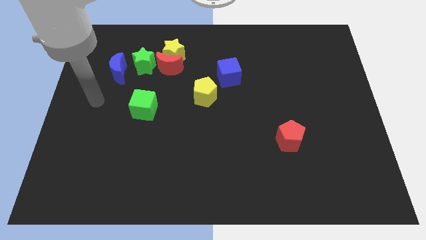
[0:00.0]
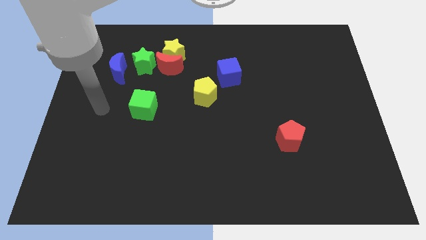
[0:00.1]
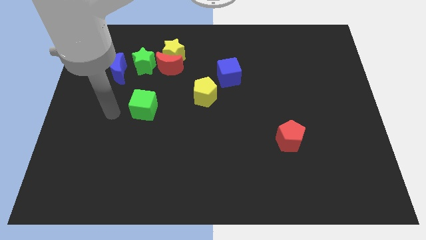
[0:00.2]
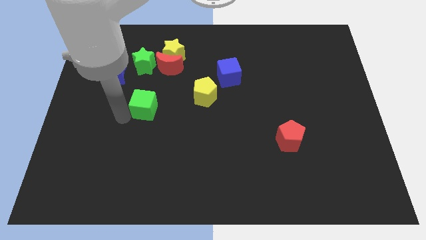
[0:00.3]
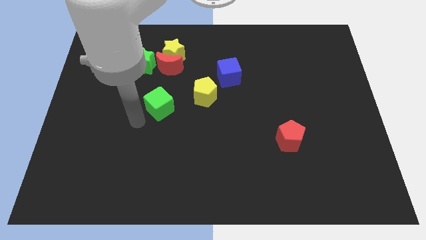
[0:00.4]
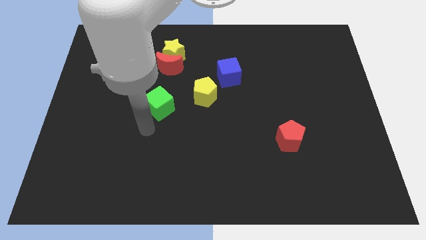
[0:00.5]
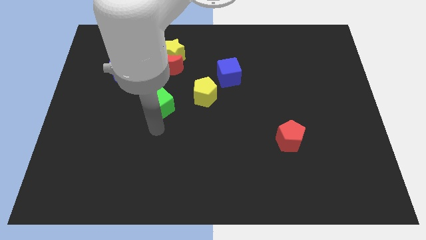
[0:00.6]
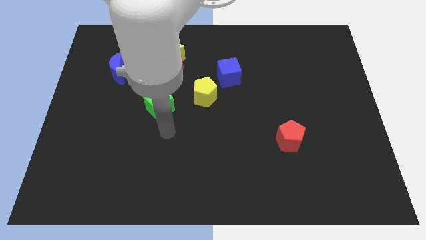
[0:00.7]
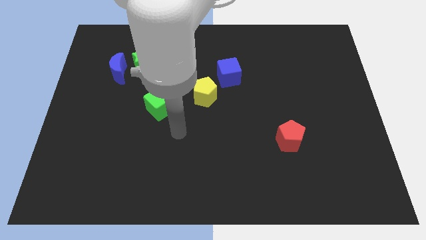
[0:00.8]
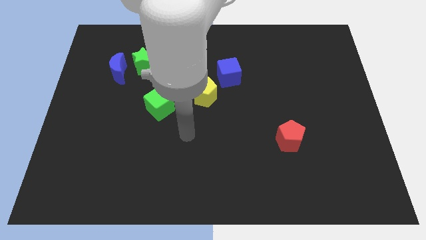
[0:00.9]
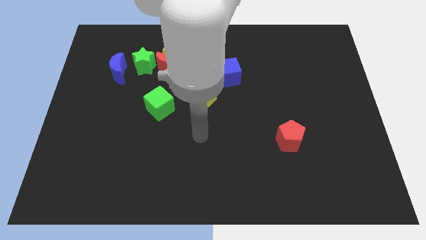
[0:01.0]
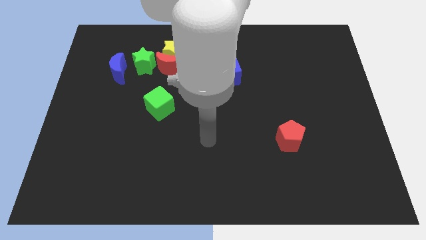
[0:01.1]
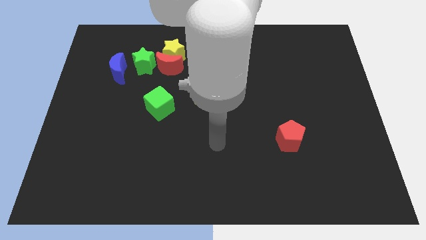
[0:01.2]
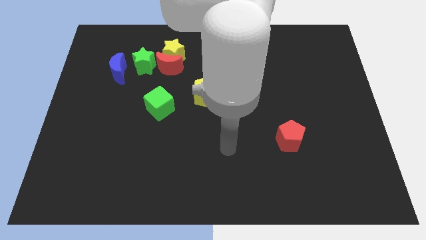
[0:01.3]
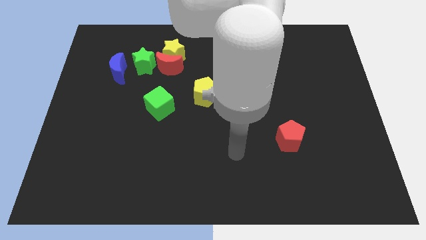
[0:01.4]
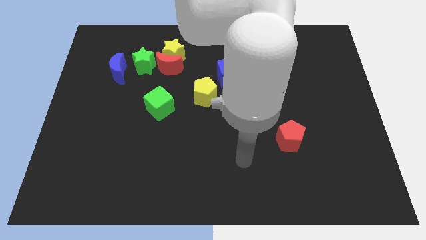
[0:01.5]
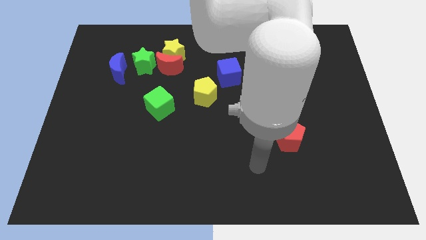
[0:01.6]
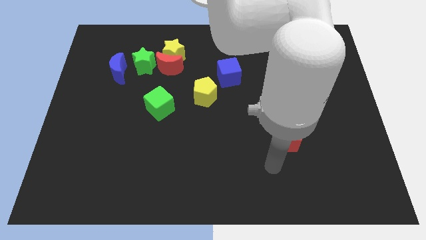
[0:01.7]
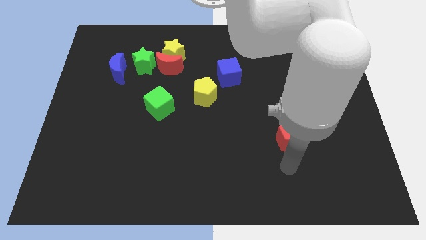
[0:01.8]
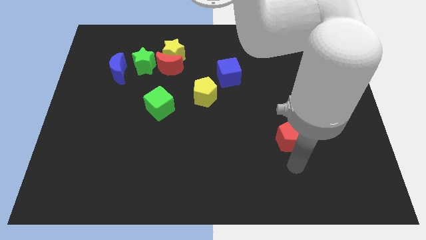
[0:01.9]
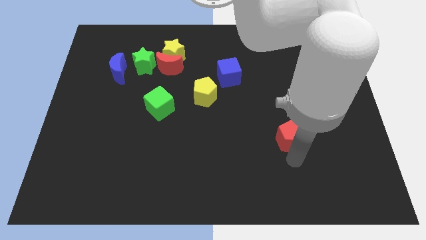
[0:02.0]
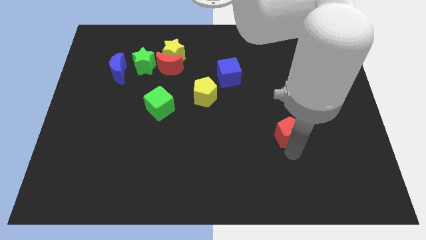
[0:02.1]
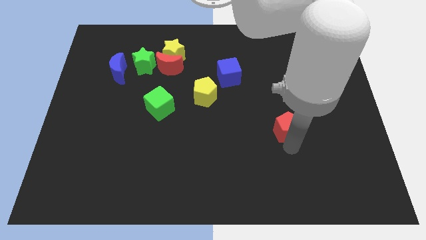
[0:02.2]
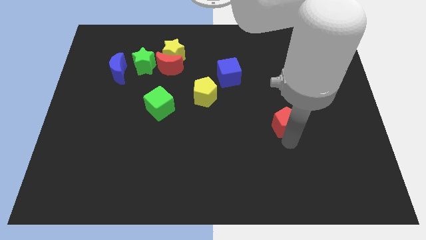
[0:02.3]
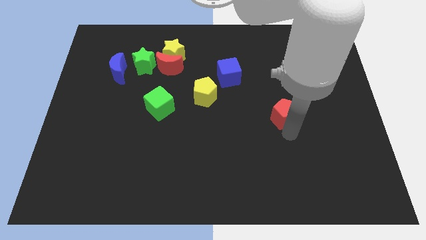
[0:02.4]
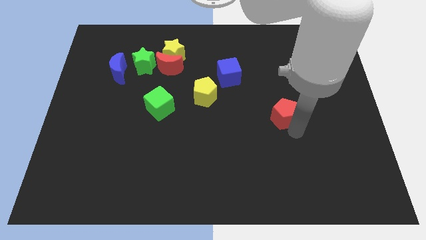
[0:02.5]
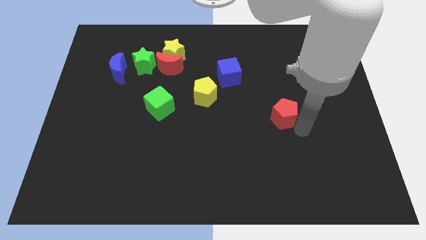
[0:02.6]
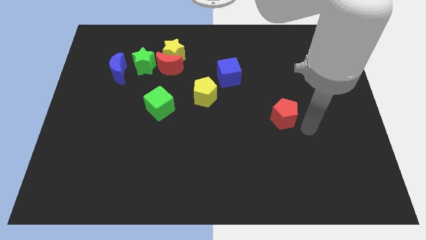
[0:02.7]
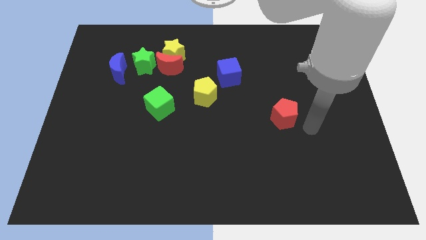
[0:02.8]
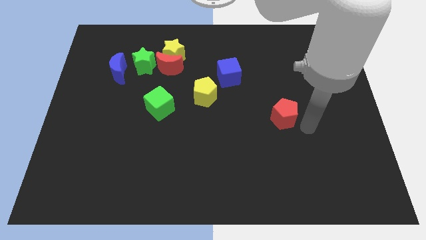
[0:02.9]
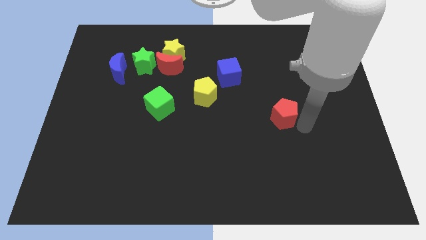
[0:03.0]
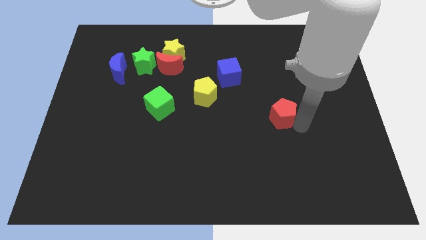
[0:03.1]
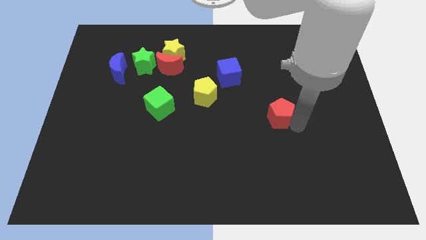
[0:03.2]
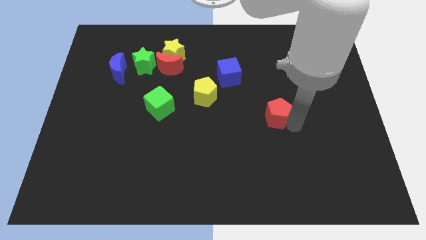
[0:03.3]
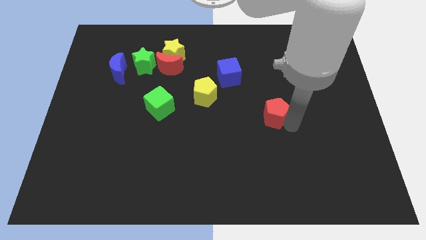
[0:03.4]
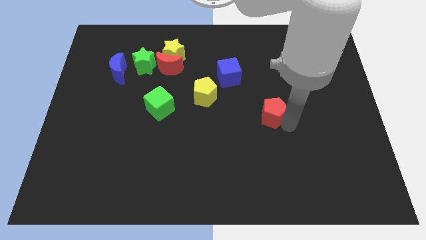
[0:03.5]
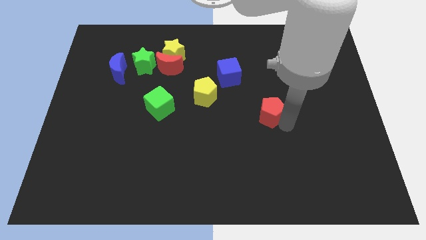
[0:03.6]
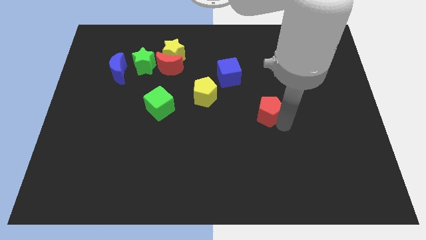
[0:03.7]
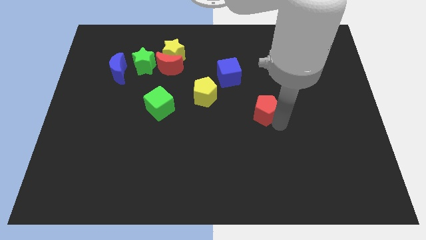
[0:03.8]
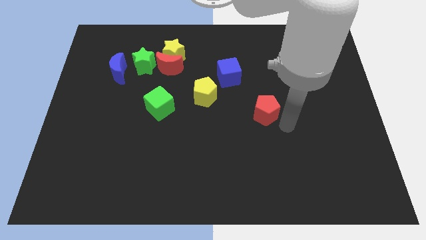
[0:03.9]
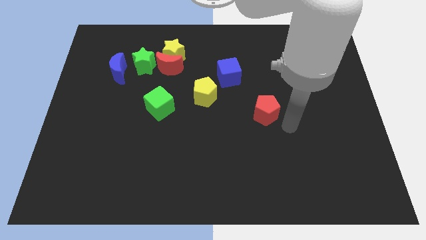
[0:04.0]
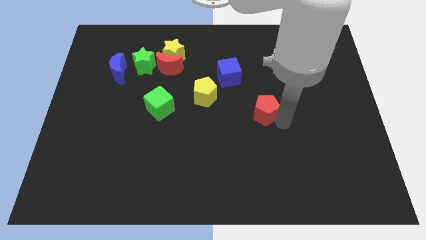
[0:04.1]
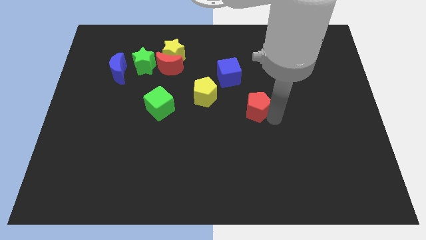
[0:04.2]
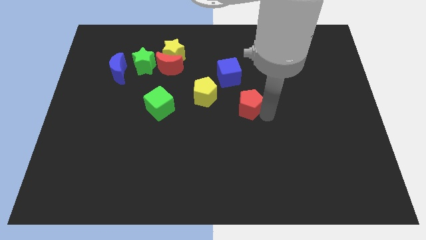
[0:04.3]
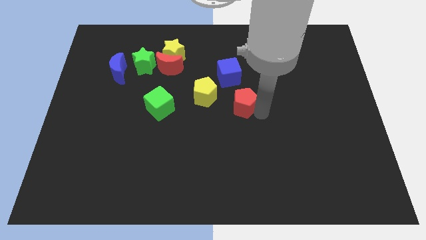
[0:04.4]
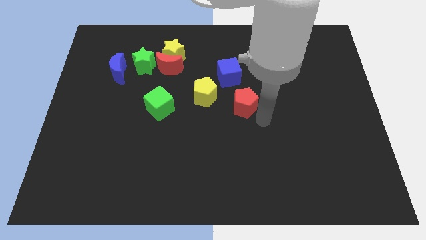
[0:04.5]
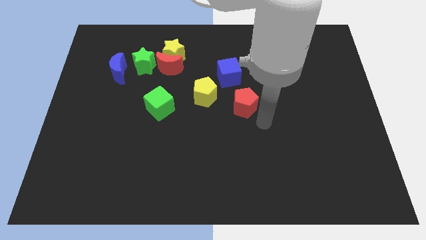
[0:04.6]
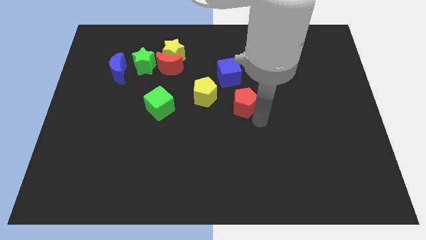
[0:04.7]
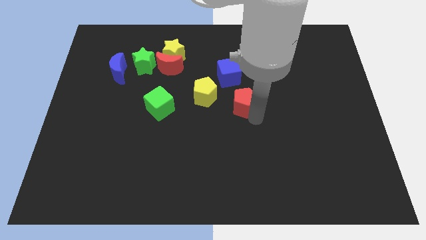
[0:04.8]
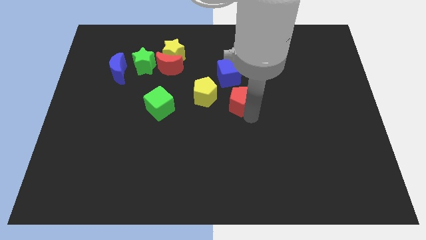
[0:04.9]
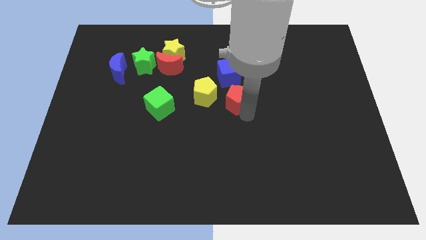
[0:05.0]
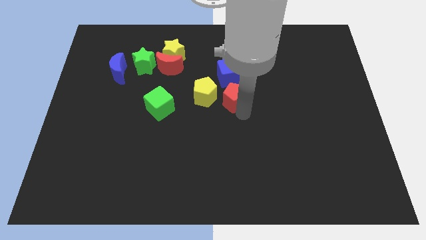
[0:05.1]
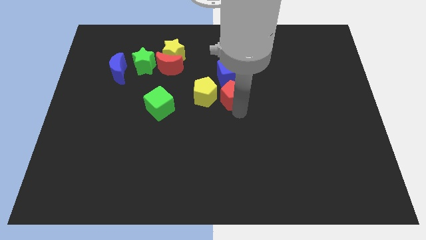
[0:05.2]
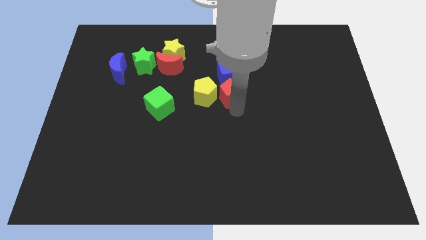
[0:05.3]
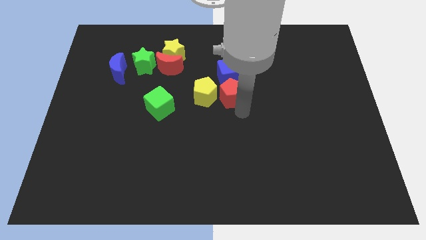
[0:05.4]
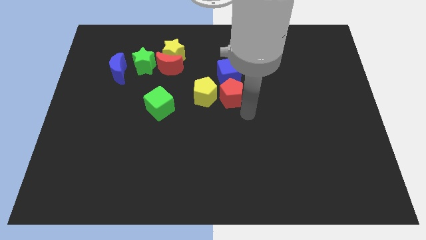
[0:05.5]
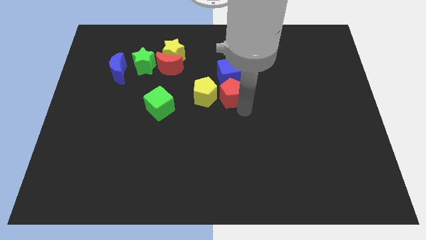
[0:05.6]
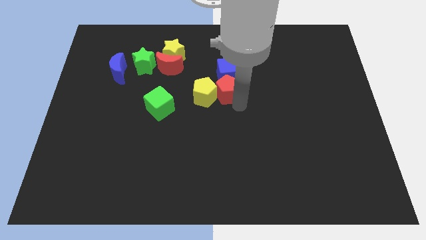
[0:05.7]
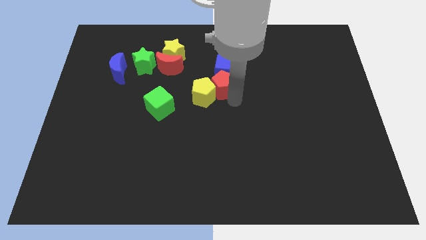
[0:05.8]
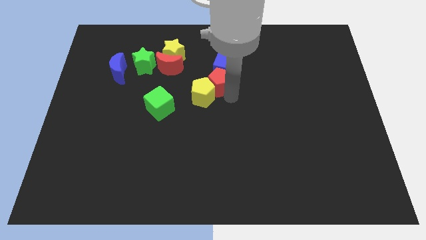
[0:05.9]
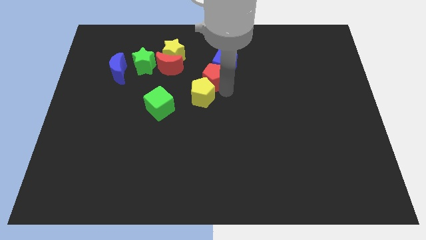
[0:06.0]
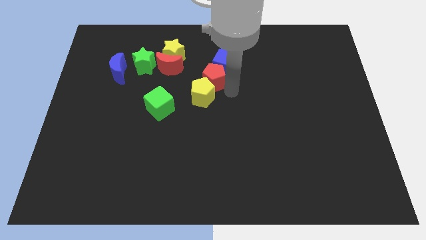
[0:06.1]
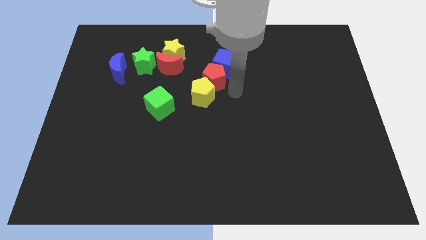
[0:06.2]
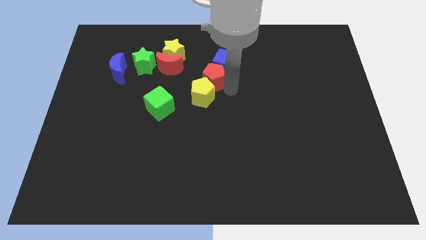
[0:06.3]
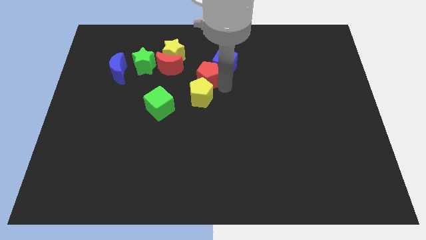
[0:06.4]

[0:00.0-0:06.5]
slide the red pentagon to the bottom right of the yellow star

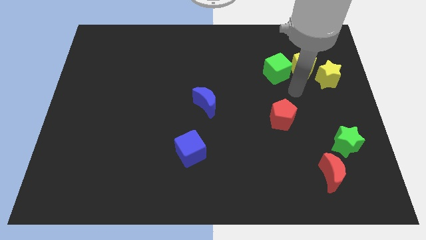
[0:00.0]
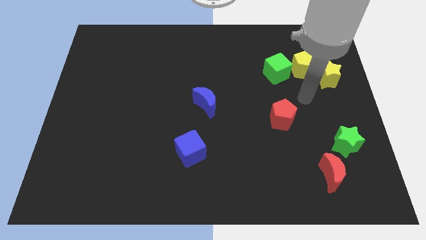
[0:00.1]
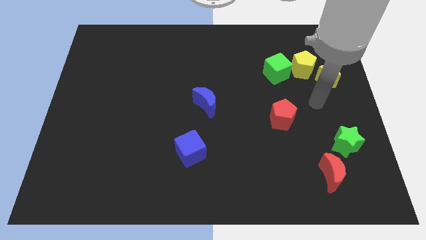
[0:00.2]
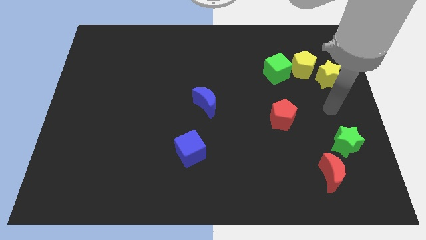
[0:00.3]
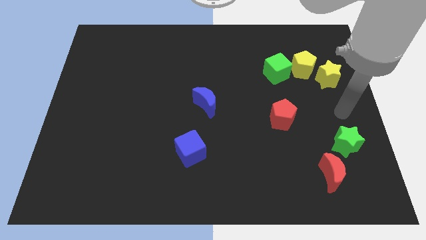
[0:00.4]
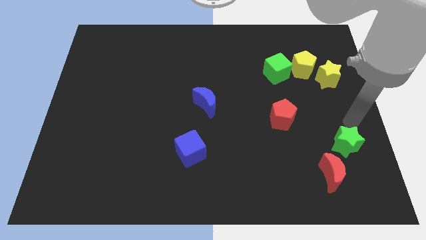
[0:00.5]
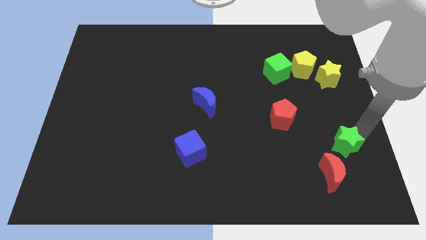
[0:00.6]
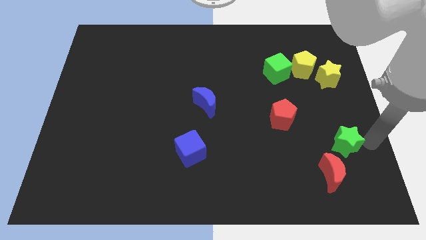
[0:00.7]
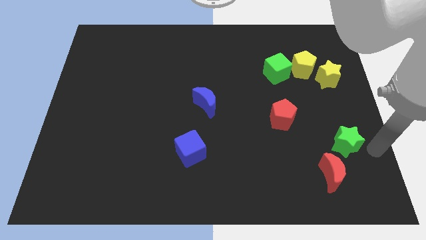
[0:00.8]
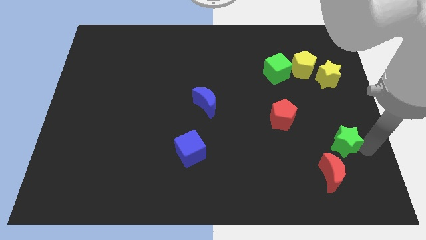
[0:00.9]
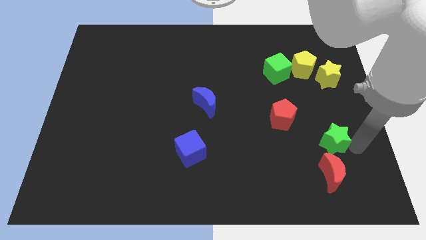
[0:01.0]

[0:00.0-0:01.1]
move the green star diagonally down and to the right of the red pentagon
